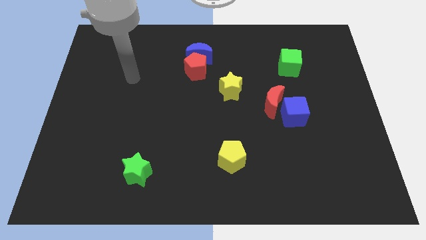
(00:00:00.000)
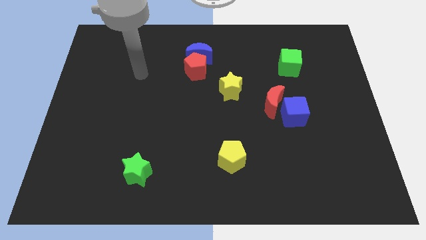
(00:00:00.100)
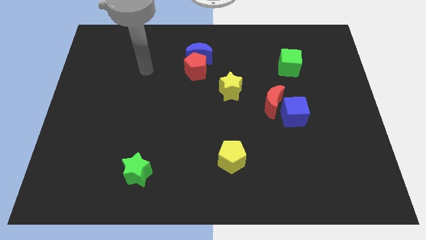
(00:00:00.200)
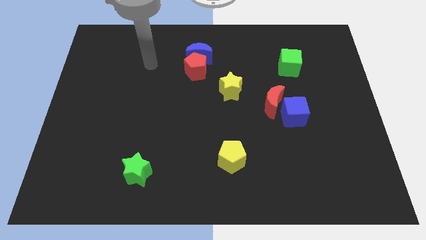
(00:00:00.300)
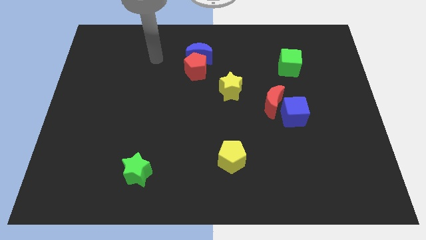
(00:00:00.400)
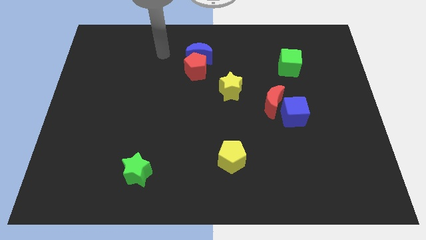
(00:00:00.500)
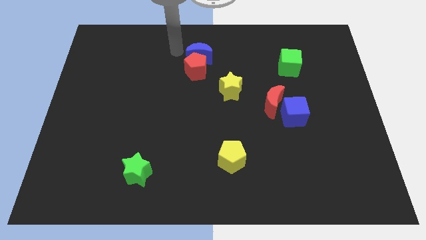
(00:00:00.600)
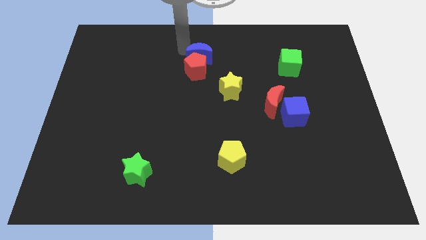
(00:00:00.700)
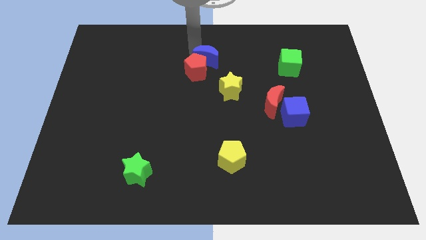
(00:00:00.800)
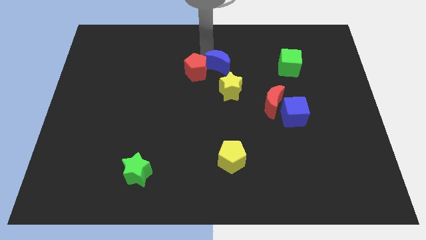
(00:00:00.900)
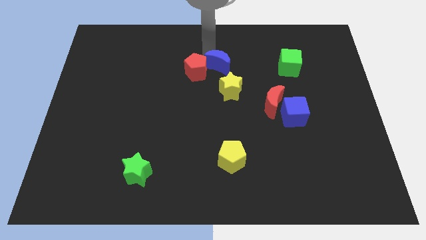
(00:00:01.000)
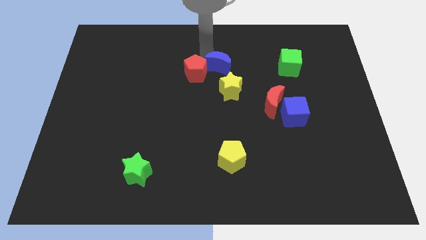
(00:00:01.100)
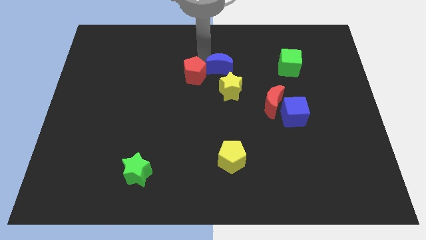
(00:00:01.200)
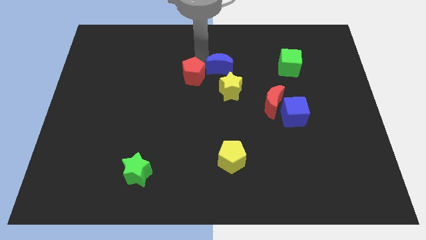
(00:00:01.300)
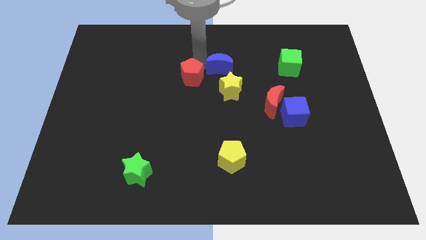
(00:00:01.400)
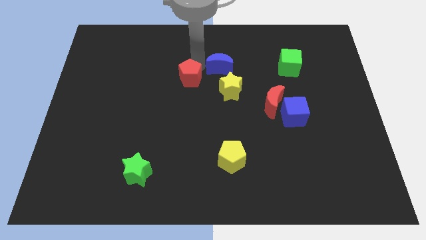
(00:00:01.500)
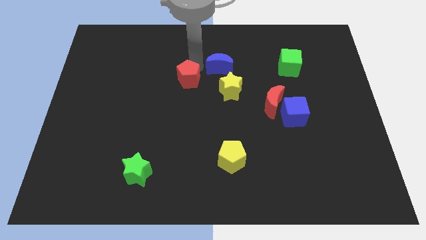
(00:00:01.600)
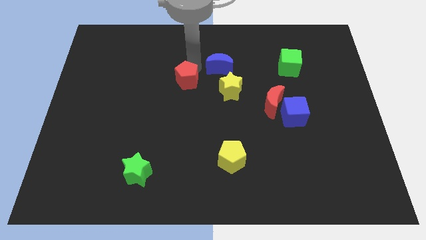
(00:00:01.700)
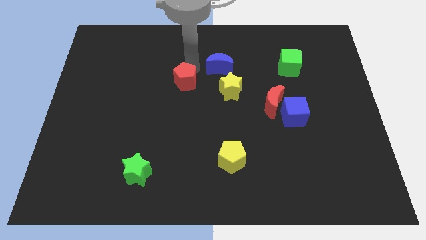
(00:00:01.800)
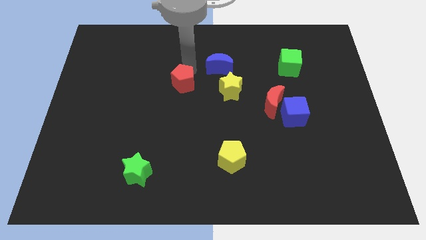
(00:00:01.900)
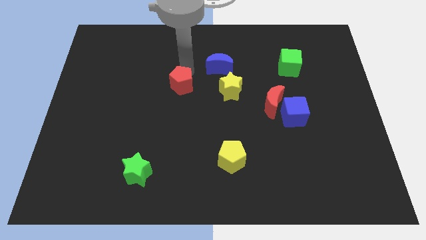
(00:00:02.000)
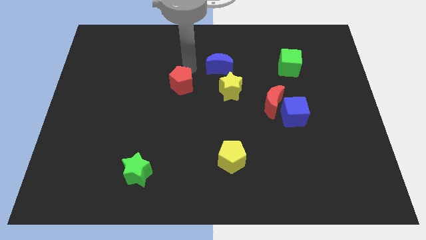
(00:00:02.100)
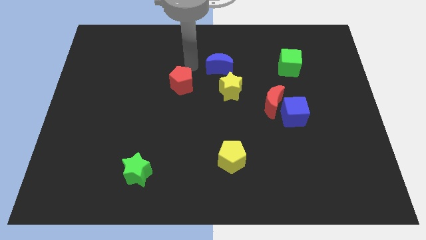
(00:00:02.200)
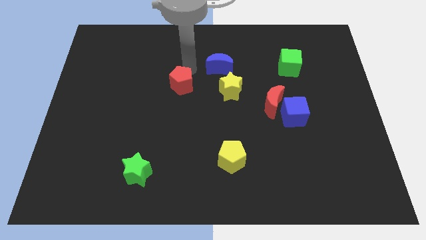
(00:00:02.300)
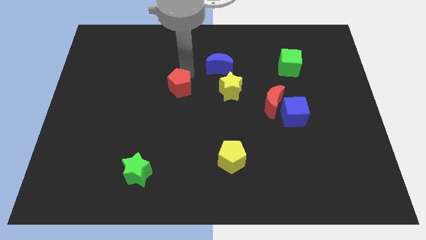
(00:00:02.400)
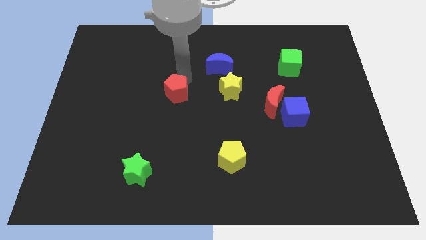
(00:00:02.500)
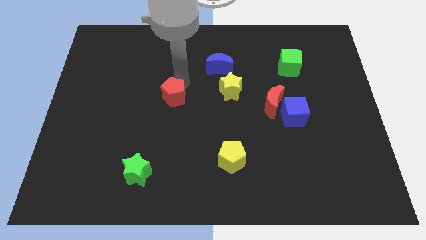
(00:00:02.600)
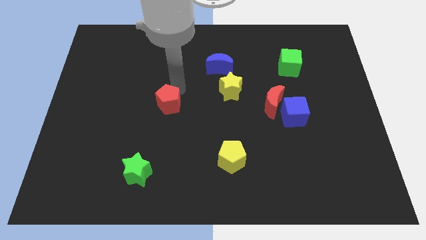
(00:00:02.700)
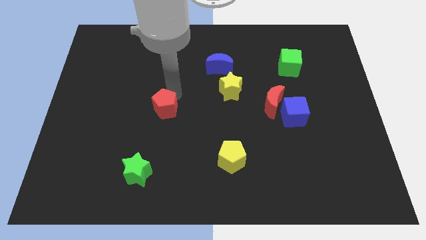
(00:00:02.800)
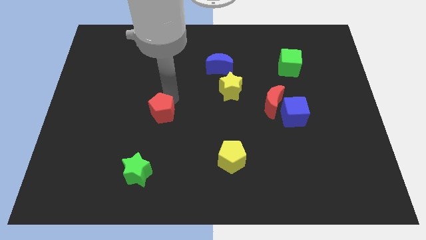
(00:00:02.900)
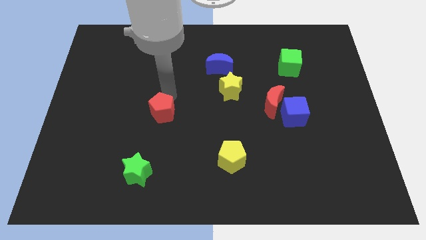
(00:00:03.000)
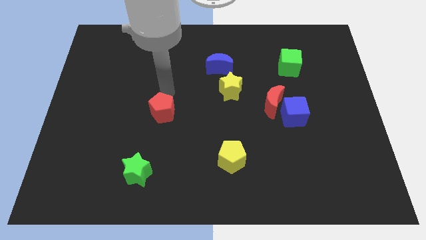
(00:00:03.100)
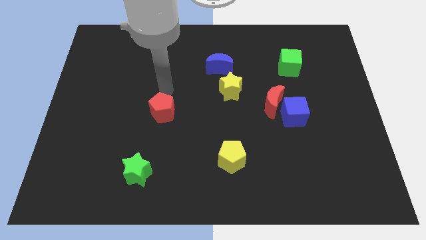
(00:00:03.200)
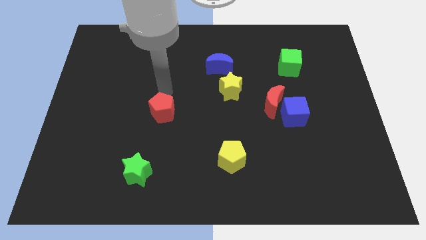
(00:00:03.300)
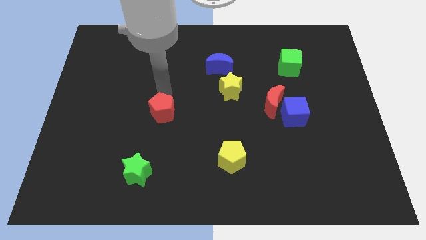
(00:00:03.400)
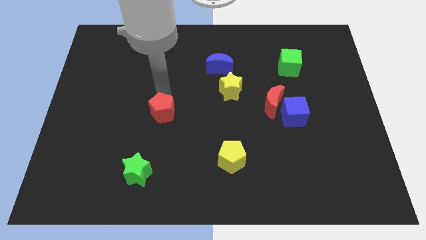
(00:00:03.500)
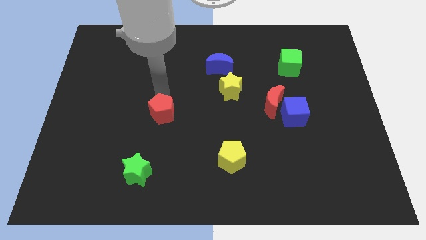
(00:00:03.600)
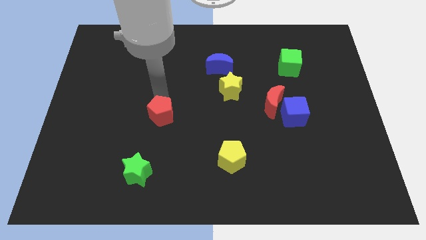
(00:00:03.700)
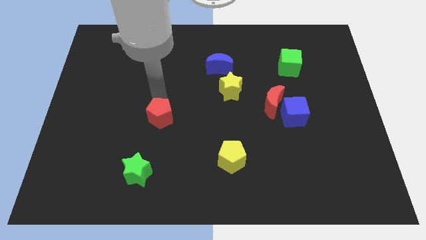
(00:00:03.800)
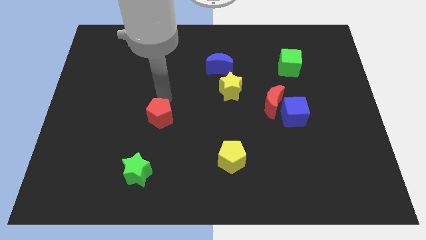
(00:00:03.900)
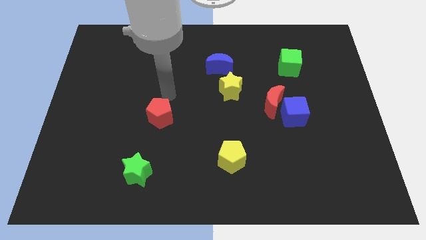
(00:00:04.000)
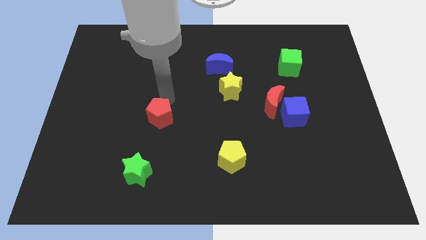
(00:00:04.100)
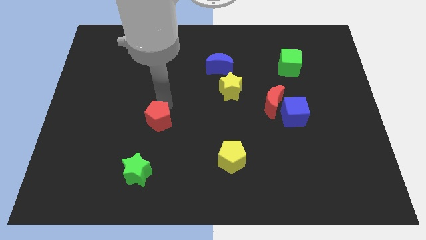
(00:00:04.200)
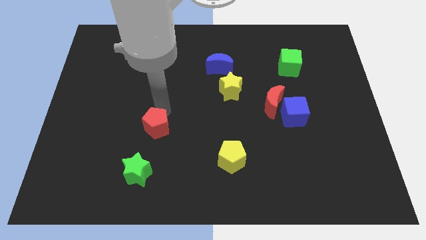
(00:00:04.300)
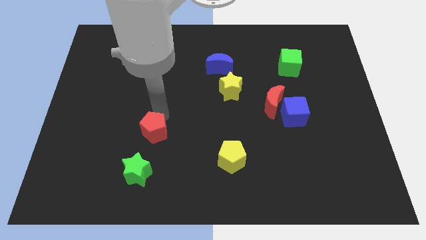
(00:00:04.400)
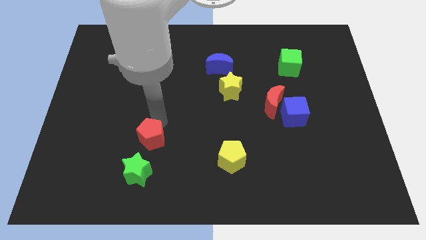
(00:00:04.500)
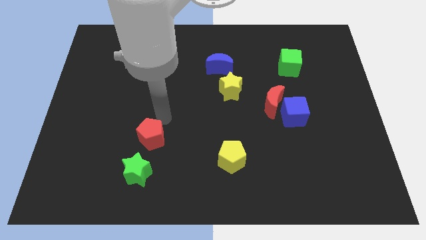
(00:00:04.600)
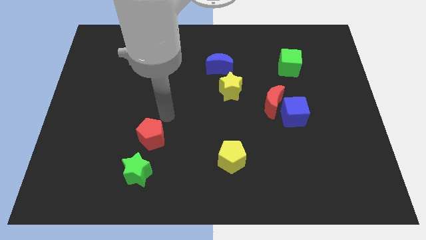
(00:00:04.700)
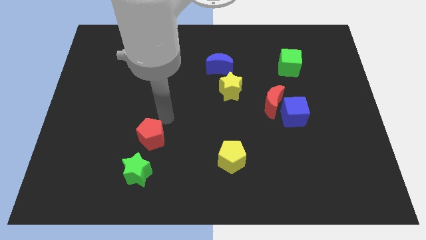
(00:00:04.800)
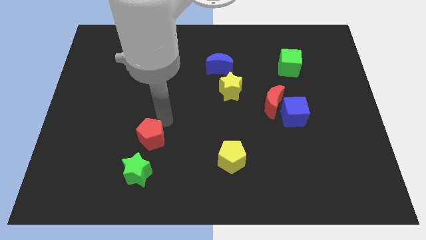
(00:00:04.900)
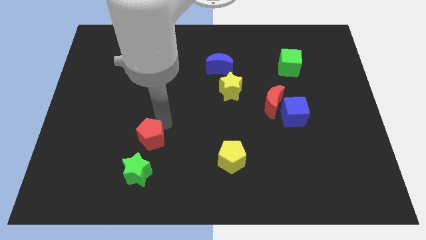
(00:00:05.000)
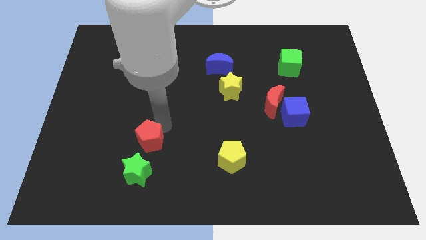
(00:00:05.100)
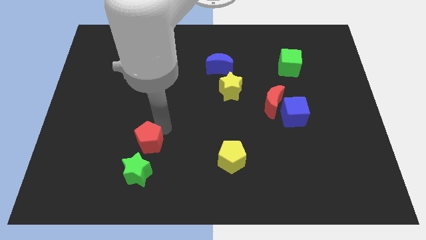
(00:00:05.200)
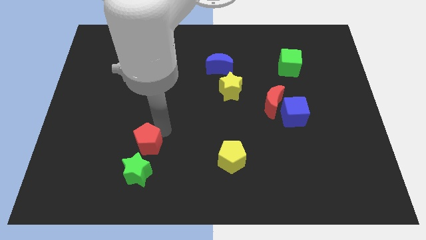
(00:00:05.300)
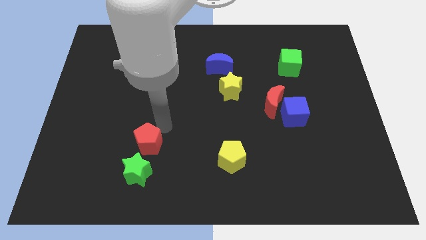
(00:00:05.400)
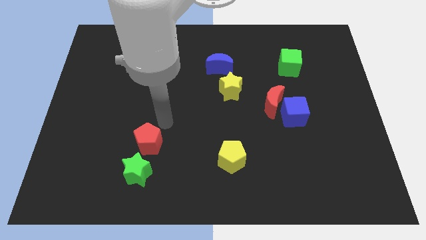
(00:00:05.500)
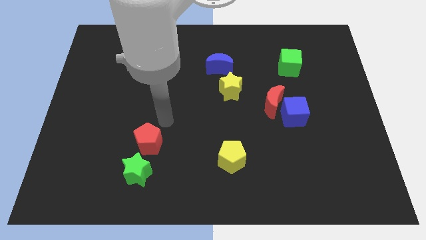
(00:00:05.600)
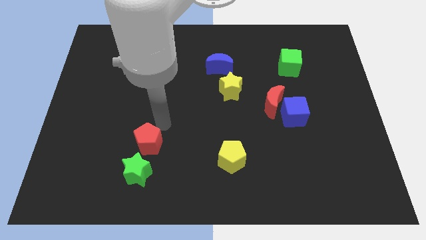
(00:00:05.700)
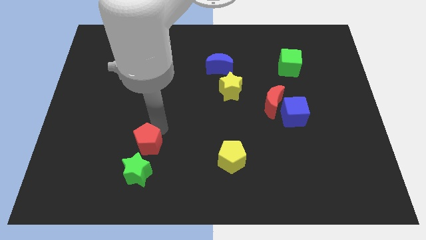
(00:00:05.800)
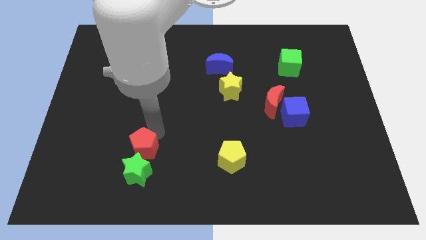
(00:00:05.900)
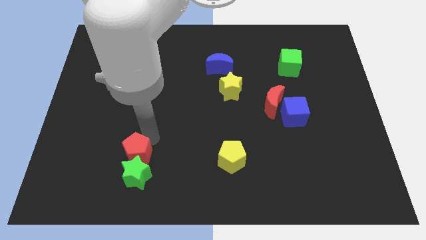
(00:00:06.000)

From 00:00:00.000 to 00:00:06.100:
slide the red pentagon close to the green star

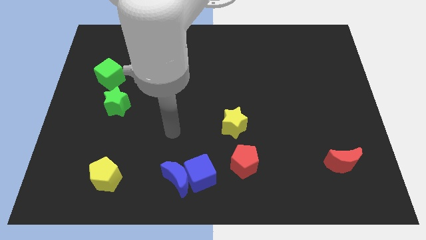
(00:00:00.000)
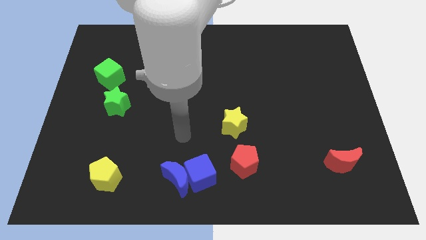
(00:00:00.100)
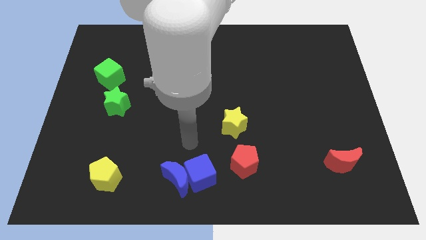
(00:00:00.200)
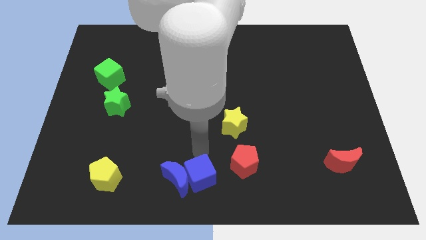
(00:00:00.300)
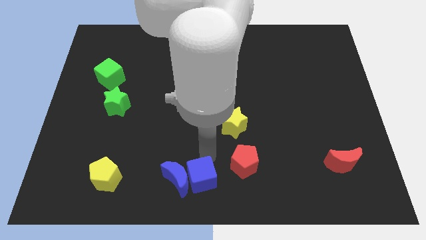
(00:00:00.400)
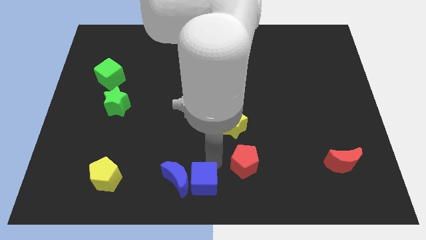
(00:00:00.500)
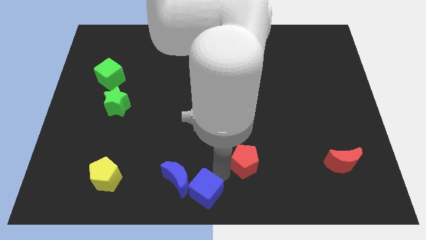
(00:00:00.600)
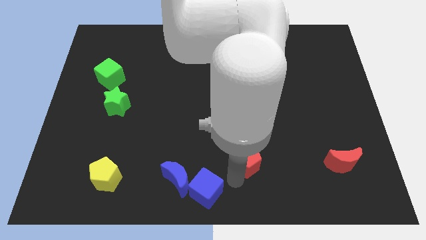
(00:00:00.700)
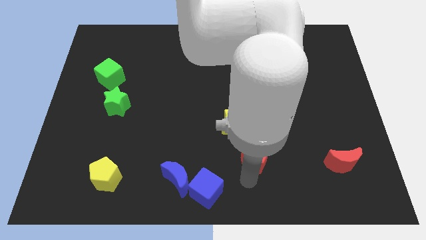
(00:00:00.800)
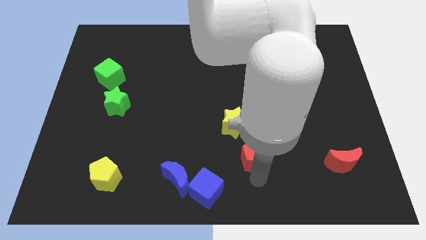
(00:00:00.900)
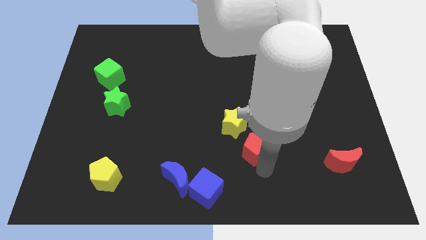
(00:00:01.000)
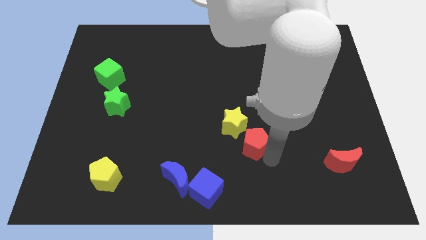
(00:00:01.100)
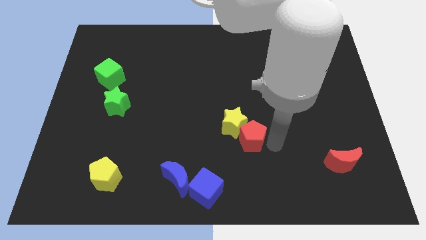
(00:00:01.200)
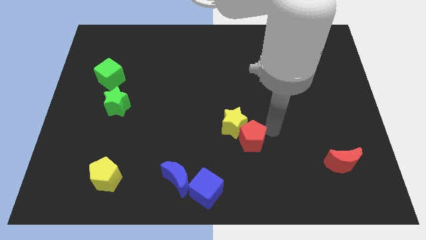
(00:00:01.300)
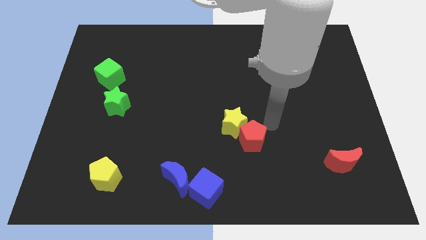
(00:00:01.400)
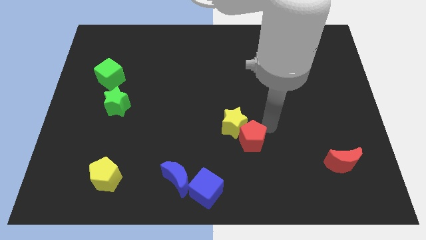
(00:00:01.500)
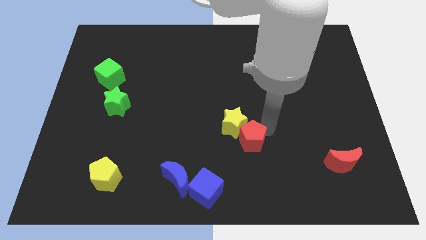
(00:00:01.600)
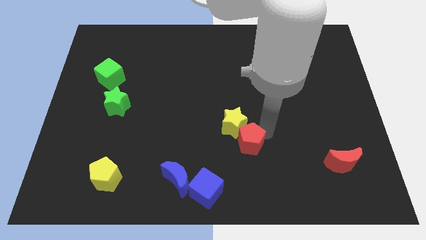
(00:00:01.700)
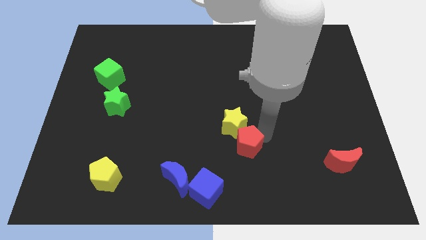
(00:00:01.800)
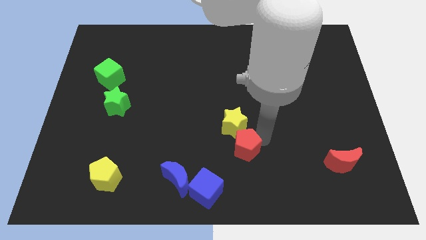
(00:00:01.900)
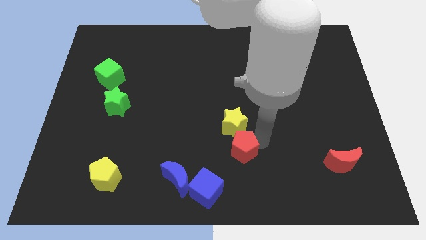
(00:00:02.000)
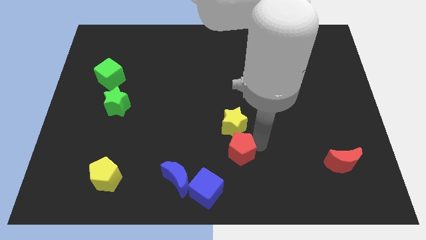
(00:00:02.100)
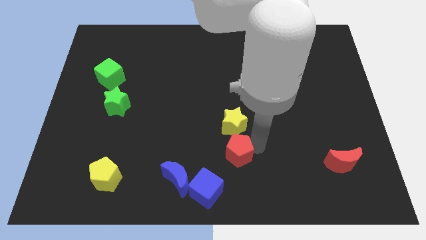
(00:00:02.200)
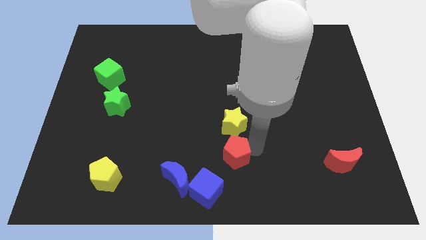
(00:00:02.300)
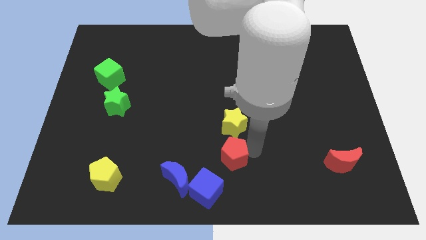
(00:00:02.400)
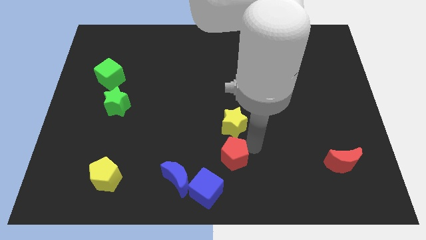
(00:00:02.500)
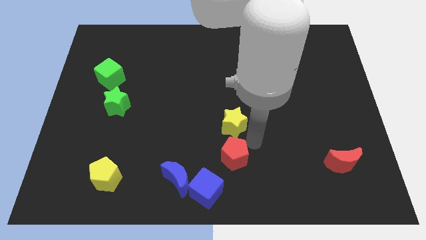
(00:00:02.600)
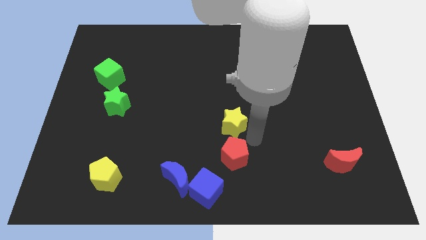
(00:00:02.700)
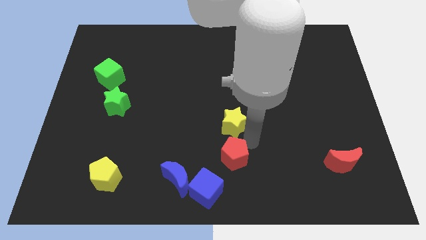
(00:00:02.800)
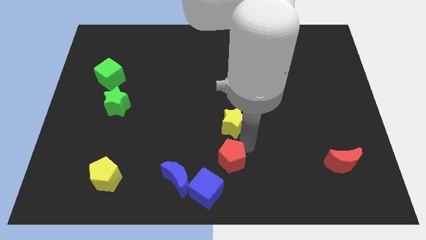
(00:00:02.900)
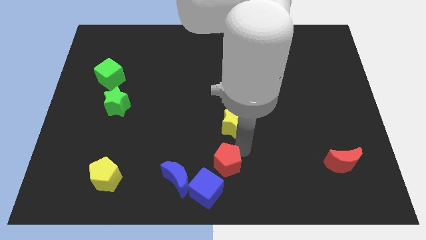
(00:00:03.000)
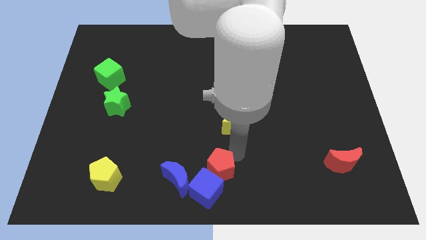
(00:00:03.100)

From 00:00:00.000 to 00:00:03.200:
push the red pentagon towards the blue cube
